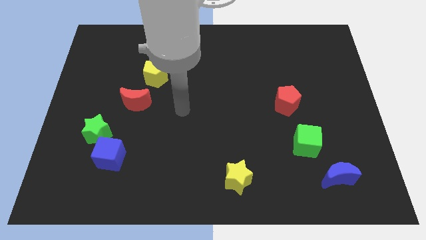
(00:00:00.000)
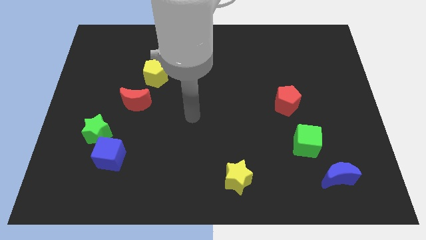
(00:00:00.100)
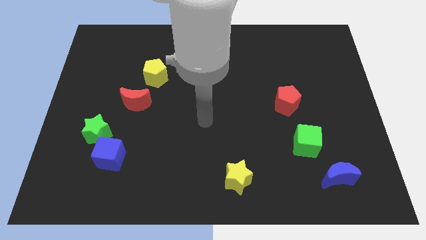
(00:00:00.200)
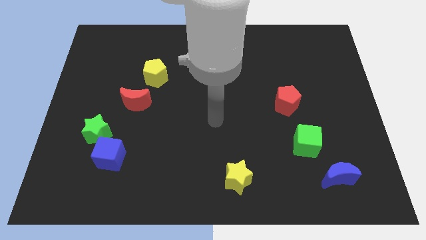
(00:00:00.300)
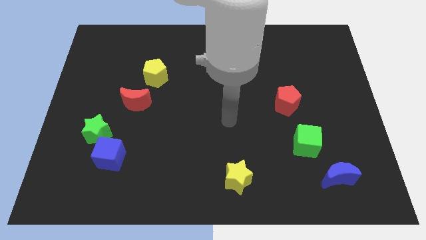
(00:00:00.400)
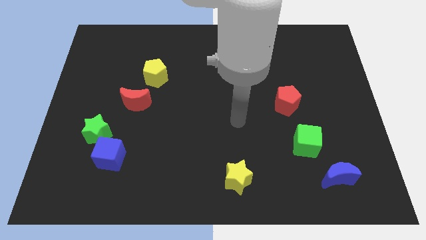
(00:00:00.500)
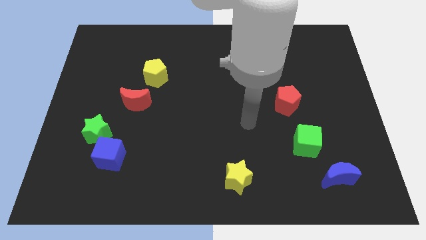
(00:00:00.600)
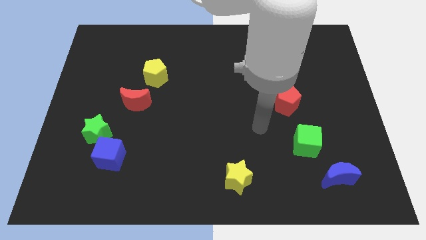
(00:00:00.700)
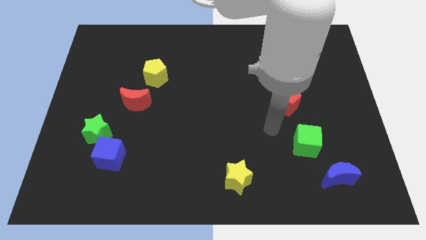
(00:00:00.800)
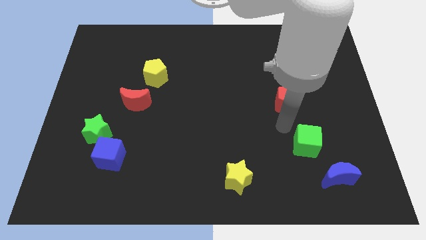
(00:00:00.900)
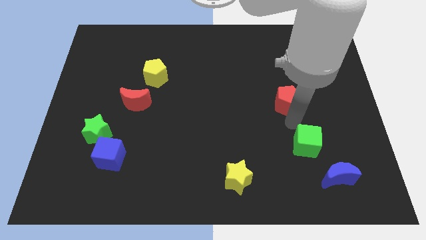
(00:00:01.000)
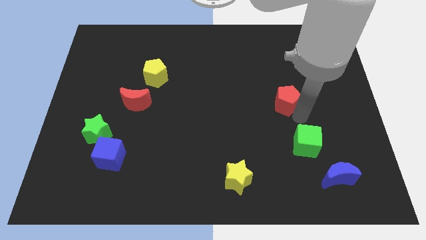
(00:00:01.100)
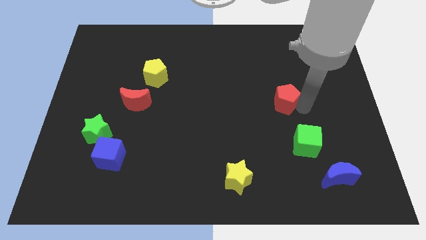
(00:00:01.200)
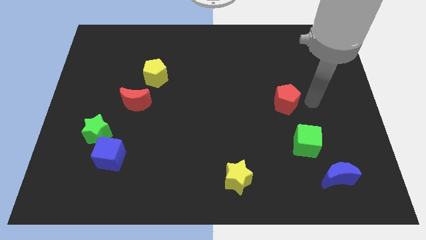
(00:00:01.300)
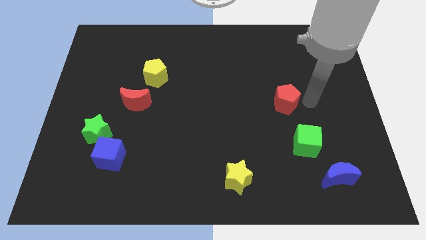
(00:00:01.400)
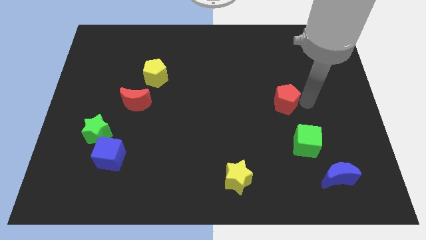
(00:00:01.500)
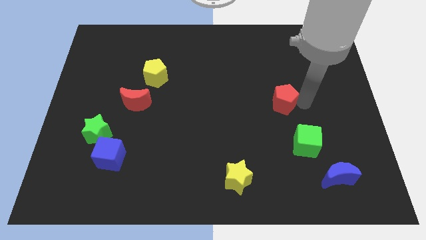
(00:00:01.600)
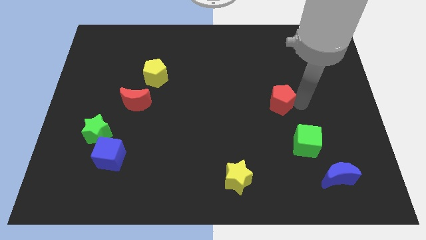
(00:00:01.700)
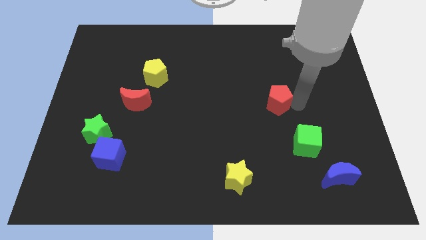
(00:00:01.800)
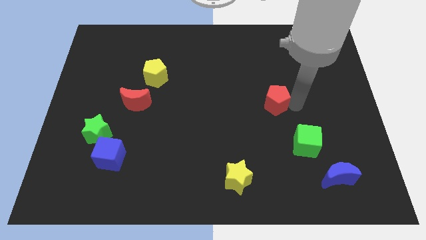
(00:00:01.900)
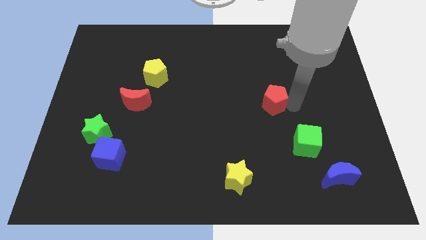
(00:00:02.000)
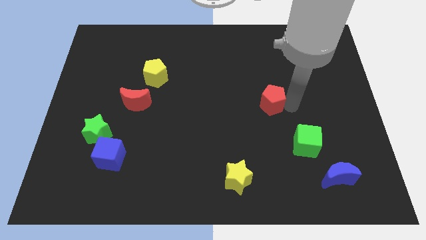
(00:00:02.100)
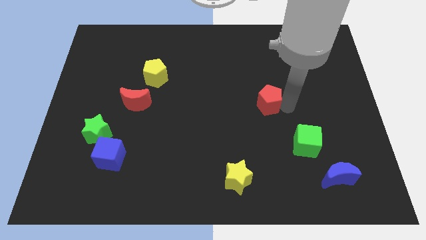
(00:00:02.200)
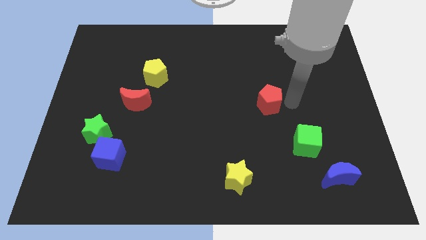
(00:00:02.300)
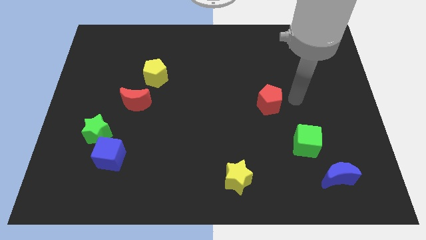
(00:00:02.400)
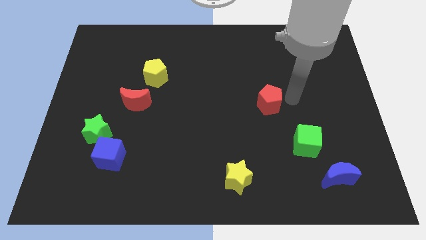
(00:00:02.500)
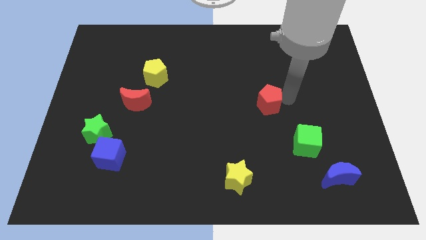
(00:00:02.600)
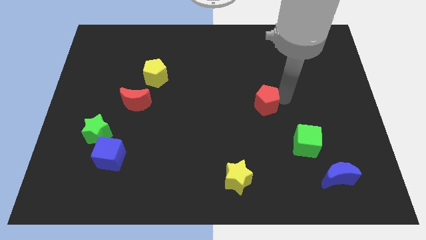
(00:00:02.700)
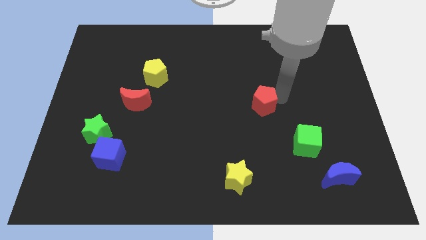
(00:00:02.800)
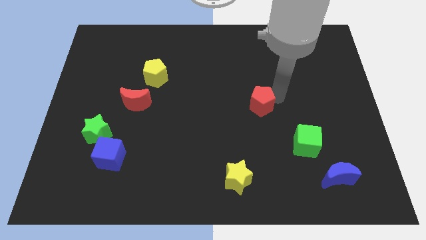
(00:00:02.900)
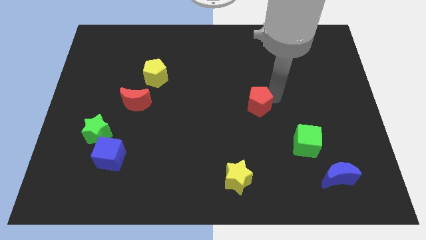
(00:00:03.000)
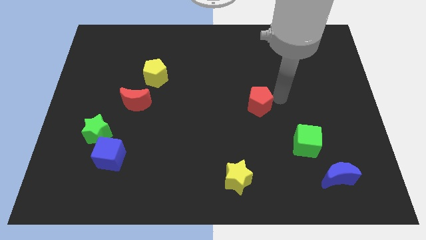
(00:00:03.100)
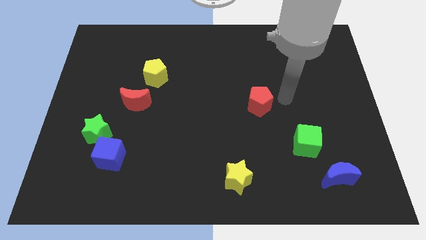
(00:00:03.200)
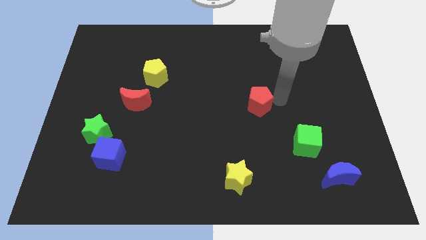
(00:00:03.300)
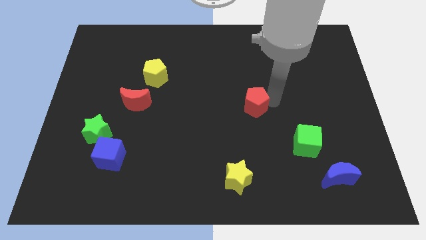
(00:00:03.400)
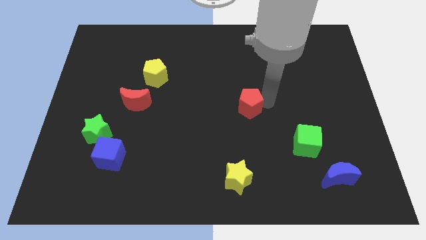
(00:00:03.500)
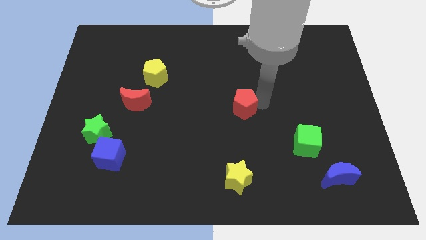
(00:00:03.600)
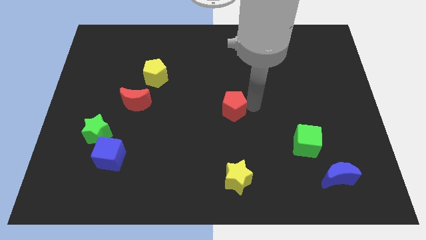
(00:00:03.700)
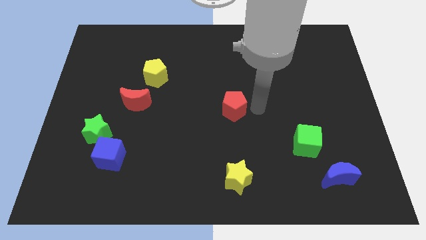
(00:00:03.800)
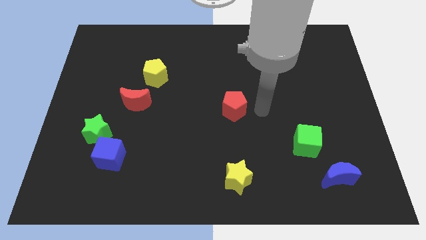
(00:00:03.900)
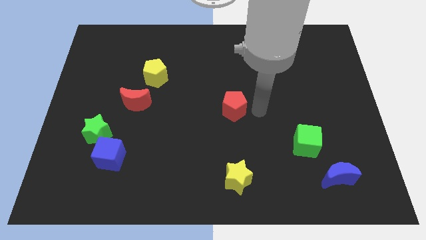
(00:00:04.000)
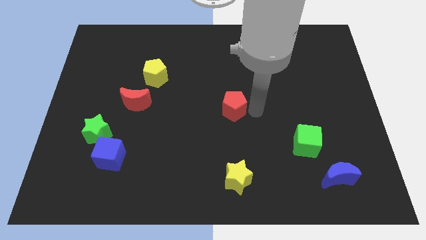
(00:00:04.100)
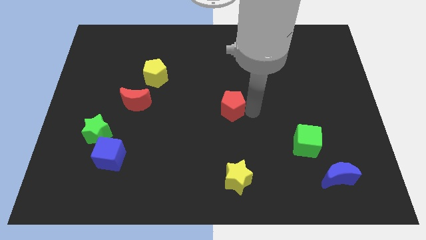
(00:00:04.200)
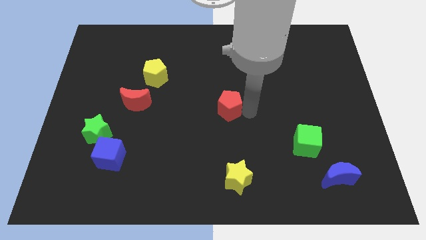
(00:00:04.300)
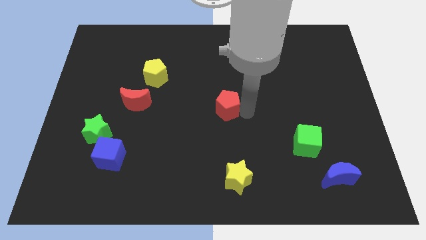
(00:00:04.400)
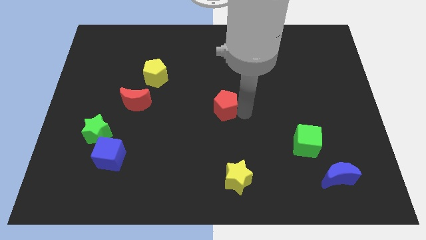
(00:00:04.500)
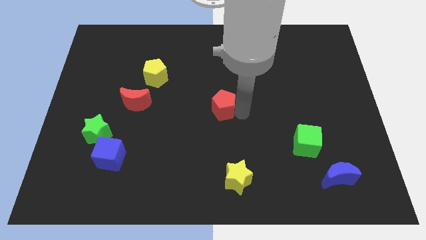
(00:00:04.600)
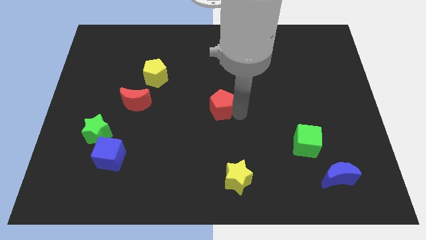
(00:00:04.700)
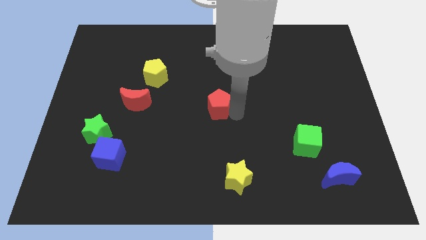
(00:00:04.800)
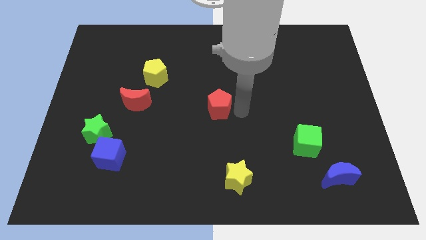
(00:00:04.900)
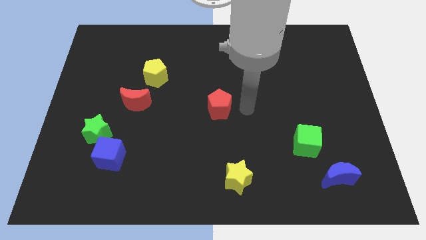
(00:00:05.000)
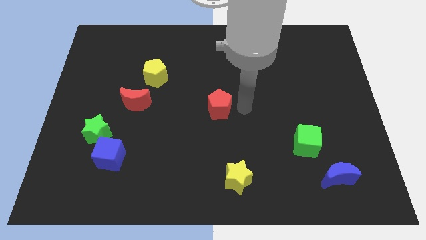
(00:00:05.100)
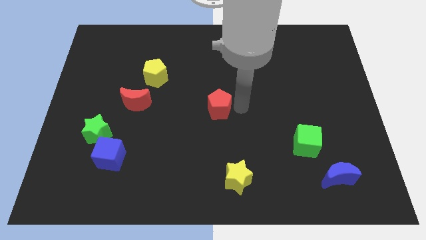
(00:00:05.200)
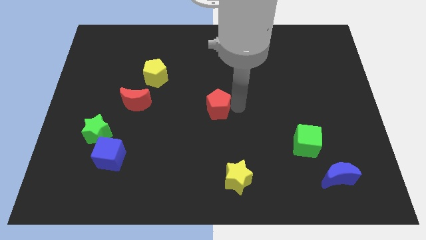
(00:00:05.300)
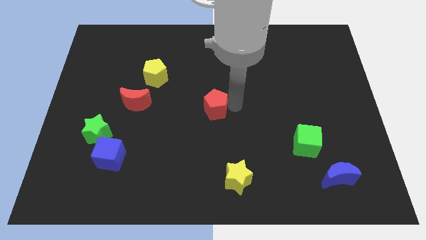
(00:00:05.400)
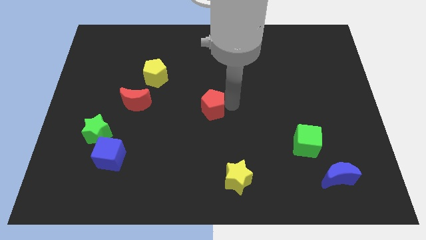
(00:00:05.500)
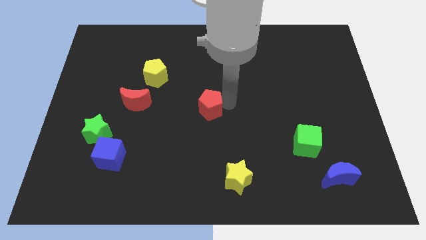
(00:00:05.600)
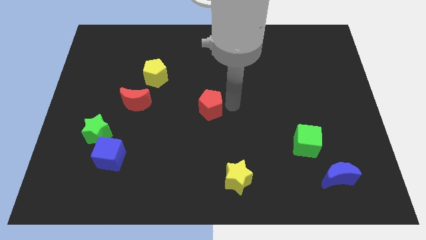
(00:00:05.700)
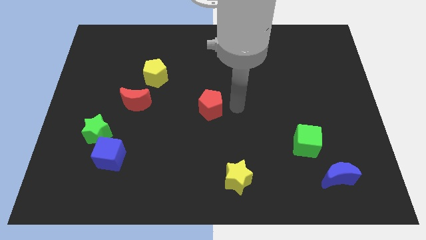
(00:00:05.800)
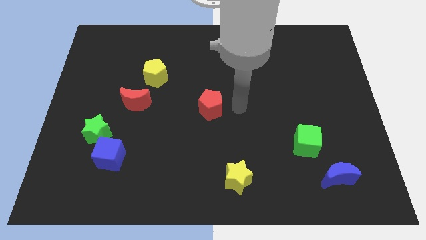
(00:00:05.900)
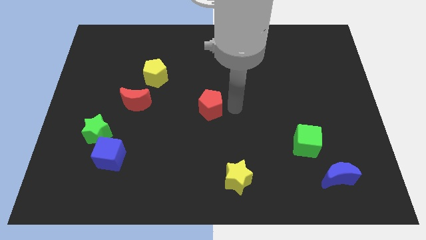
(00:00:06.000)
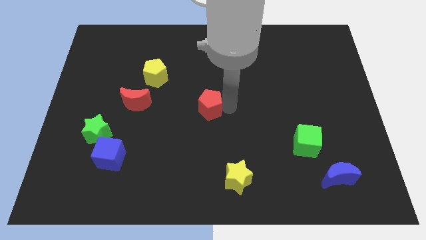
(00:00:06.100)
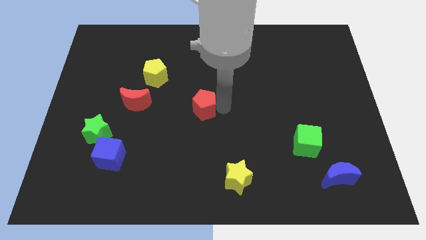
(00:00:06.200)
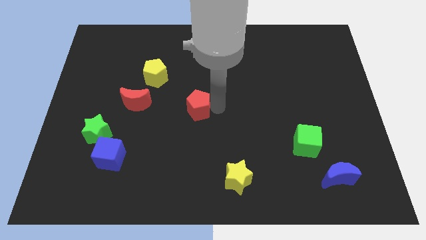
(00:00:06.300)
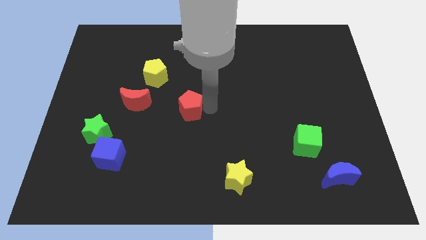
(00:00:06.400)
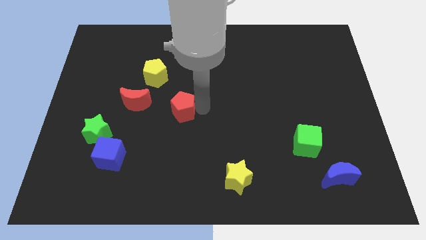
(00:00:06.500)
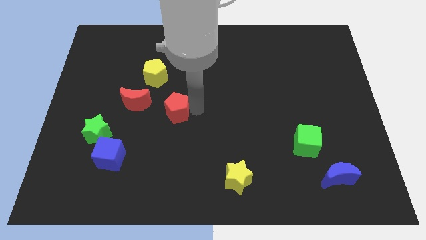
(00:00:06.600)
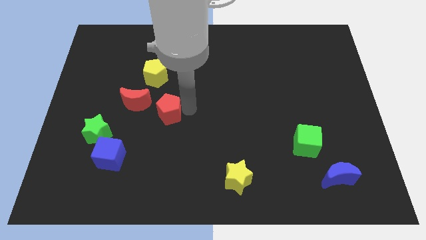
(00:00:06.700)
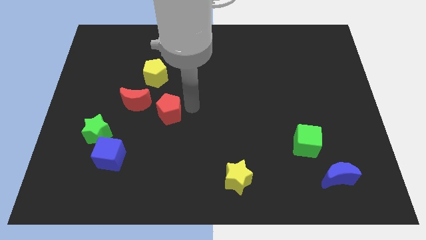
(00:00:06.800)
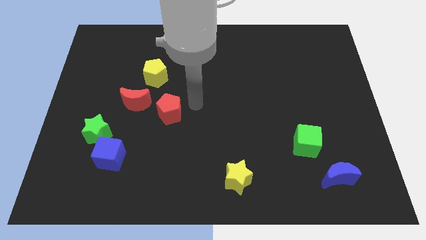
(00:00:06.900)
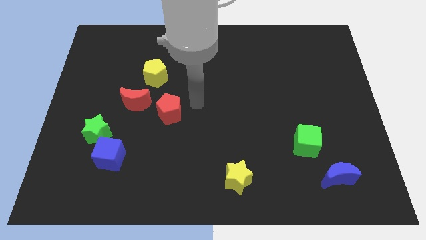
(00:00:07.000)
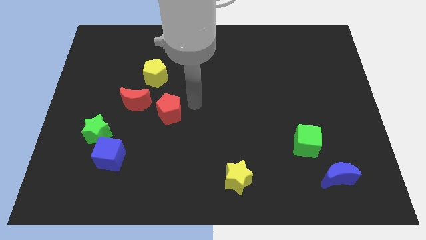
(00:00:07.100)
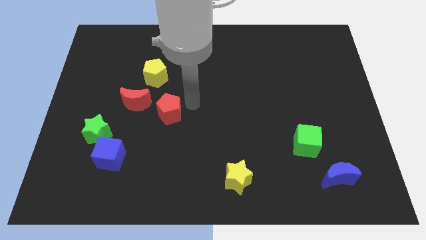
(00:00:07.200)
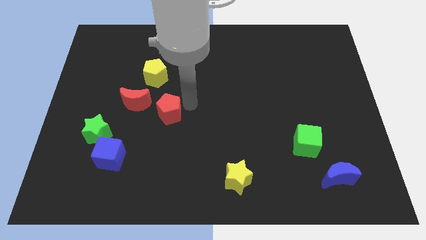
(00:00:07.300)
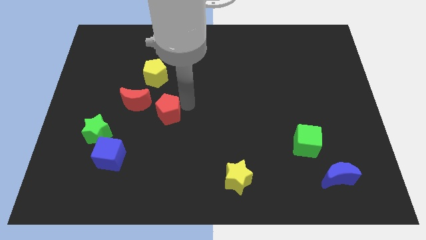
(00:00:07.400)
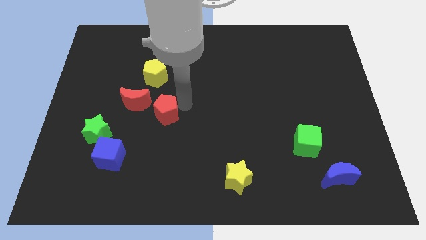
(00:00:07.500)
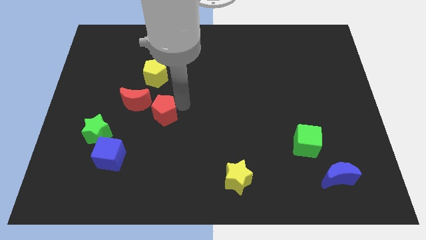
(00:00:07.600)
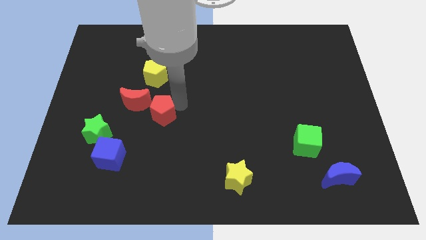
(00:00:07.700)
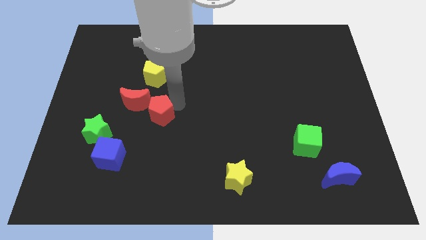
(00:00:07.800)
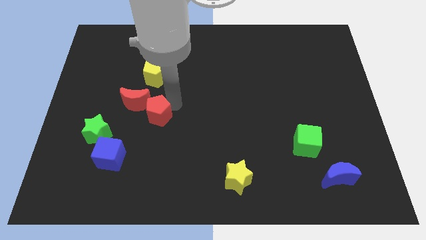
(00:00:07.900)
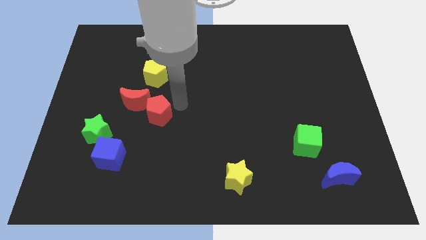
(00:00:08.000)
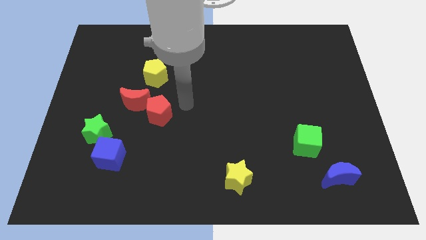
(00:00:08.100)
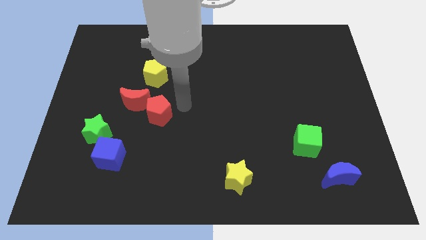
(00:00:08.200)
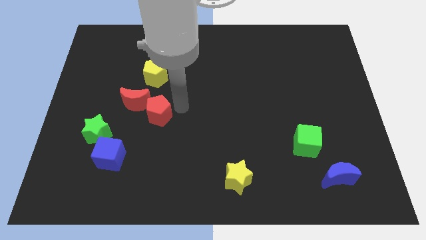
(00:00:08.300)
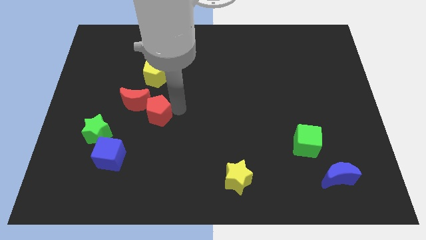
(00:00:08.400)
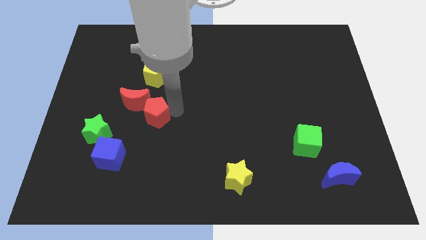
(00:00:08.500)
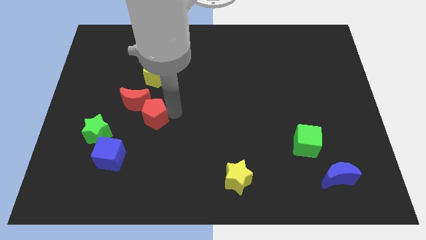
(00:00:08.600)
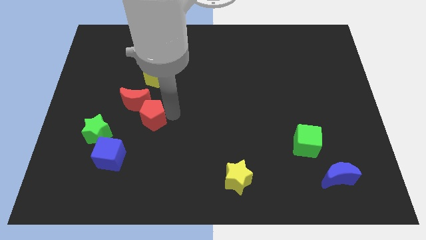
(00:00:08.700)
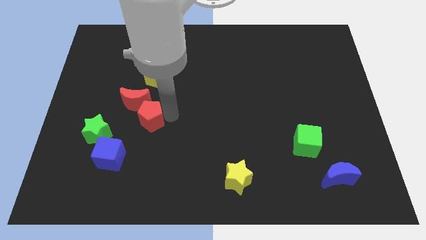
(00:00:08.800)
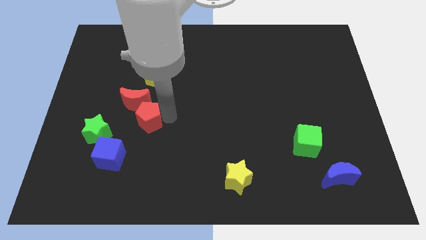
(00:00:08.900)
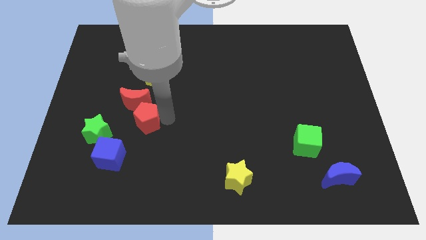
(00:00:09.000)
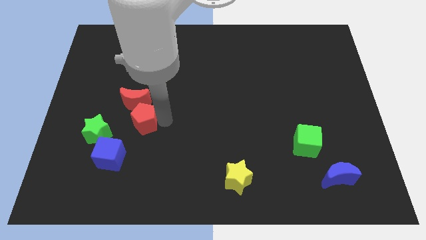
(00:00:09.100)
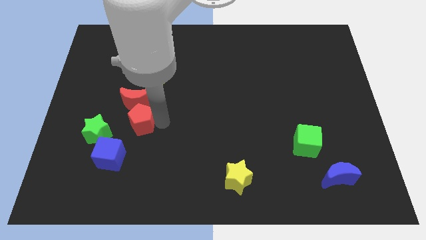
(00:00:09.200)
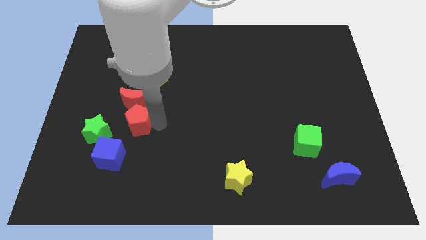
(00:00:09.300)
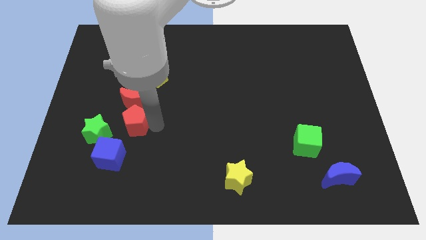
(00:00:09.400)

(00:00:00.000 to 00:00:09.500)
move the red pentagon to the top of the blue cube
